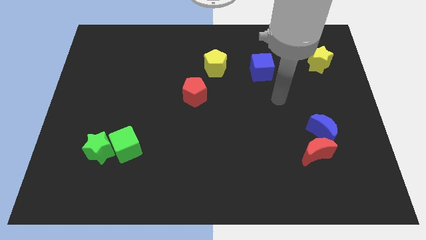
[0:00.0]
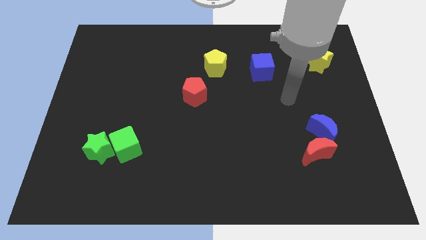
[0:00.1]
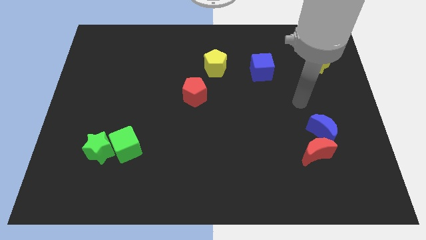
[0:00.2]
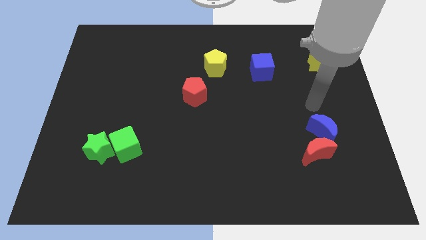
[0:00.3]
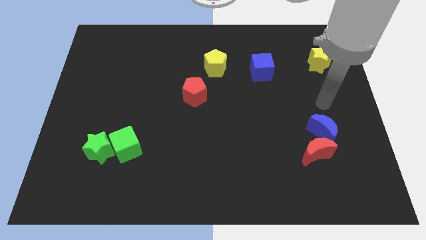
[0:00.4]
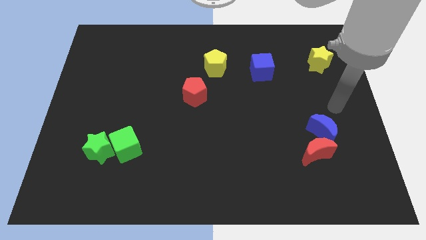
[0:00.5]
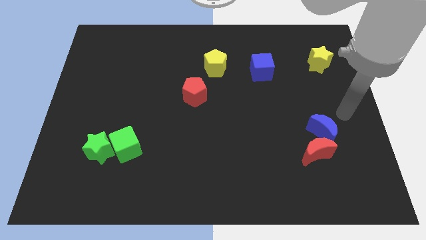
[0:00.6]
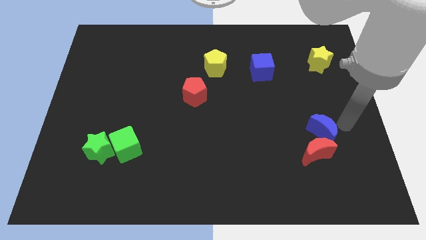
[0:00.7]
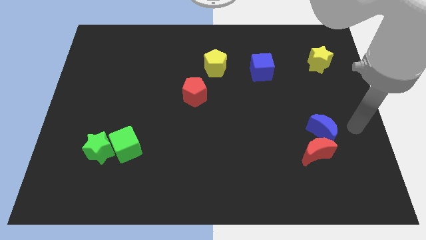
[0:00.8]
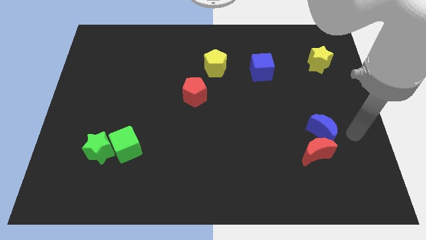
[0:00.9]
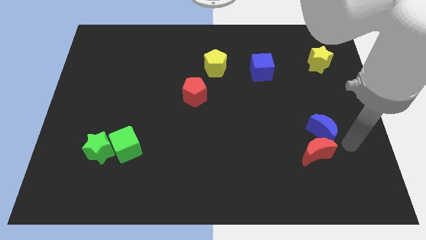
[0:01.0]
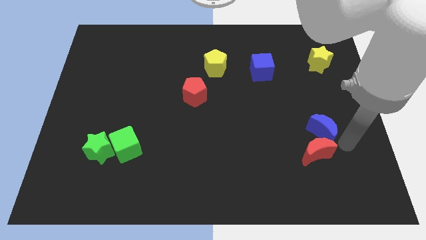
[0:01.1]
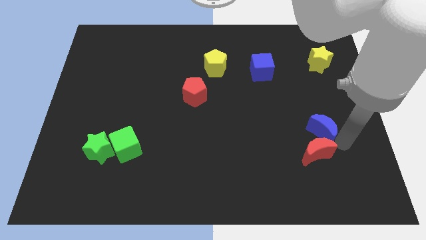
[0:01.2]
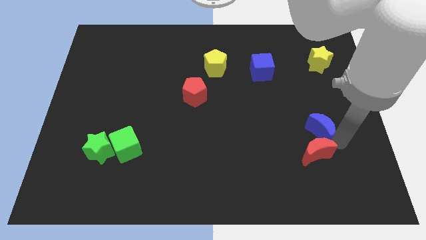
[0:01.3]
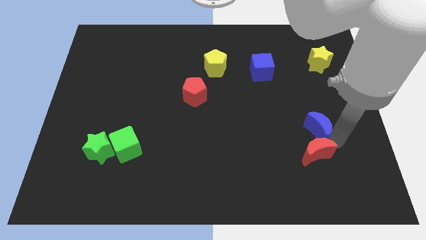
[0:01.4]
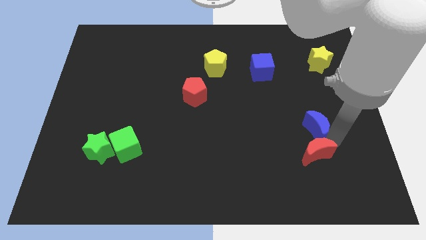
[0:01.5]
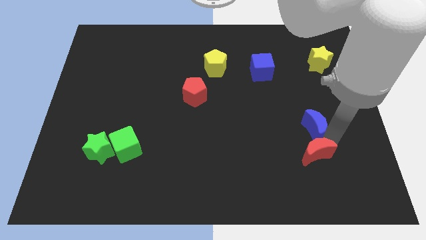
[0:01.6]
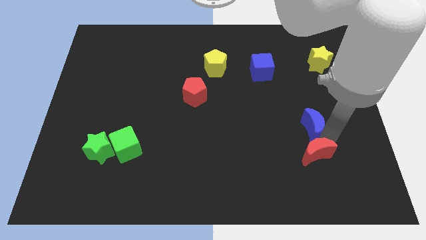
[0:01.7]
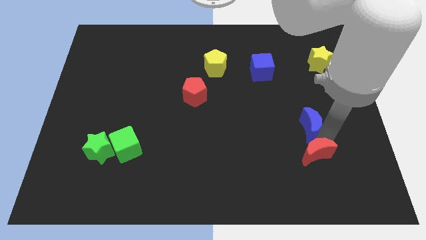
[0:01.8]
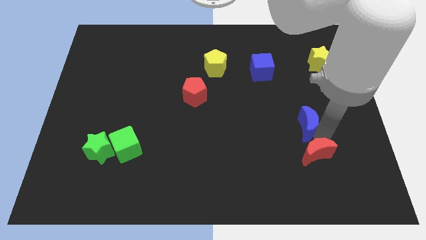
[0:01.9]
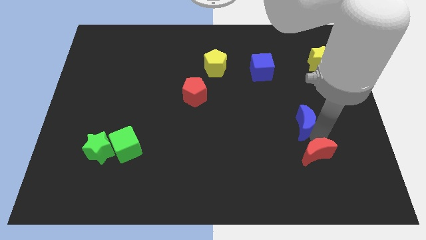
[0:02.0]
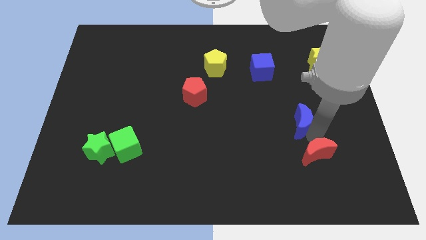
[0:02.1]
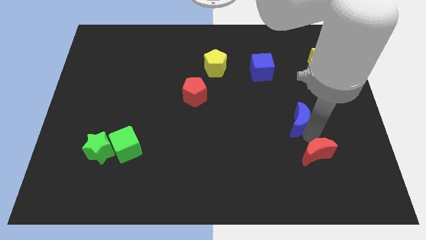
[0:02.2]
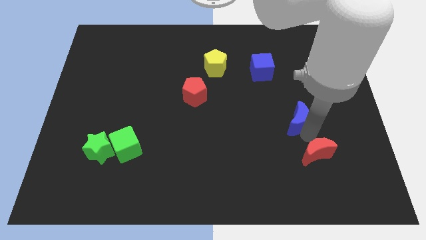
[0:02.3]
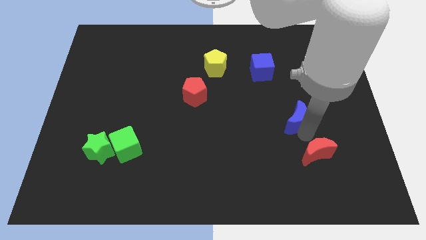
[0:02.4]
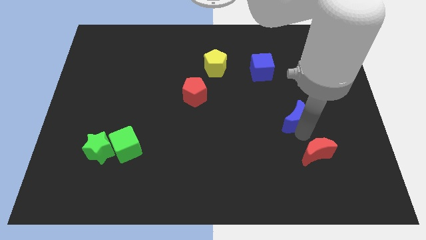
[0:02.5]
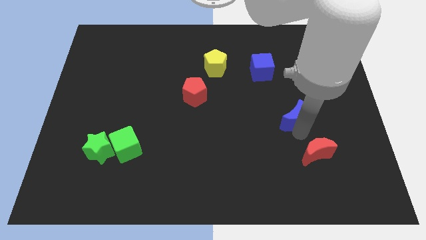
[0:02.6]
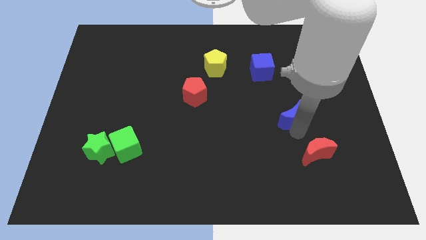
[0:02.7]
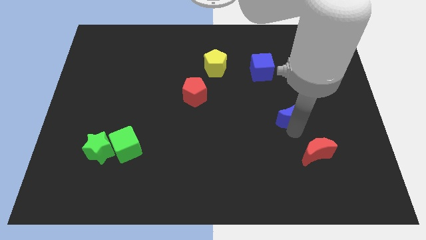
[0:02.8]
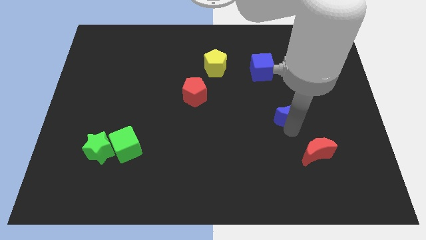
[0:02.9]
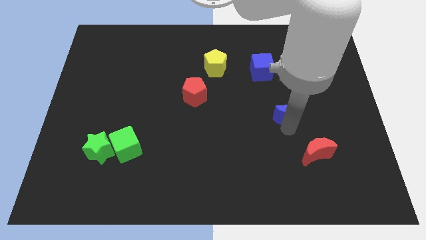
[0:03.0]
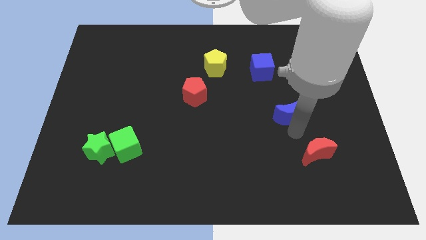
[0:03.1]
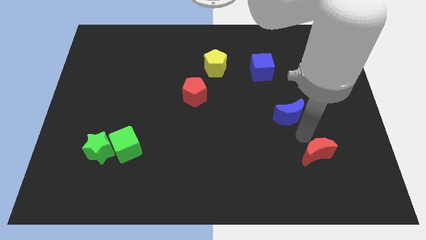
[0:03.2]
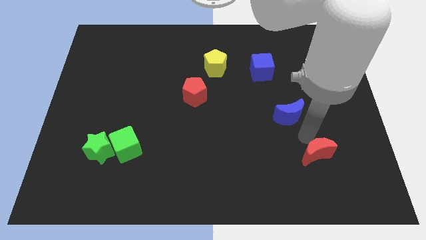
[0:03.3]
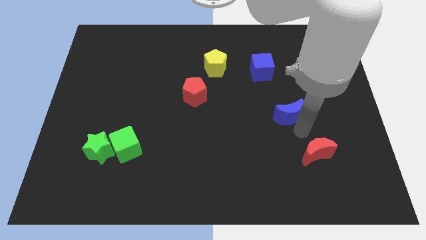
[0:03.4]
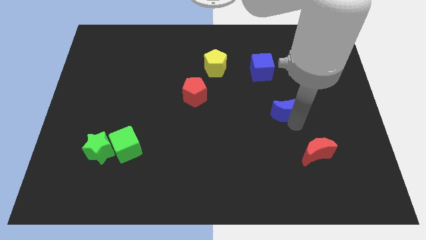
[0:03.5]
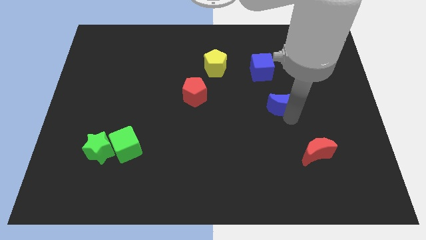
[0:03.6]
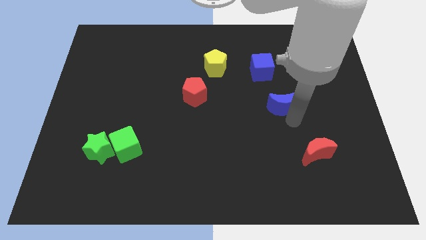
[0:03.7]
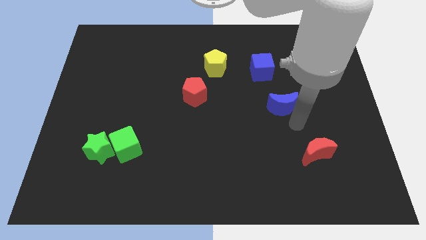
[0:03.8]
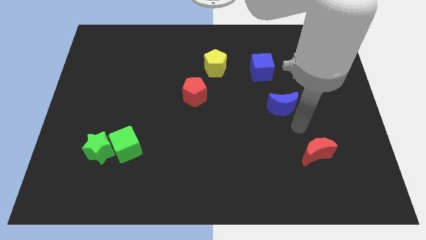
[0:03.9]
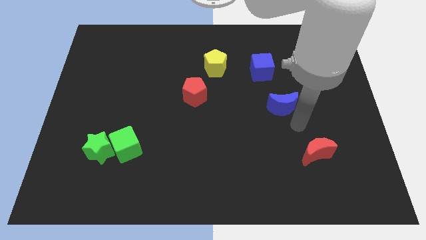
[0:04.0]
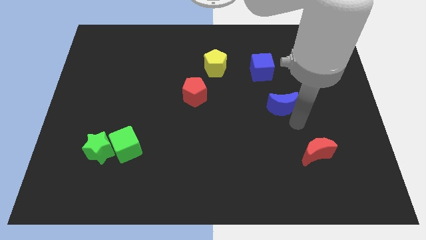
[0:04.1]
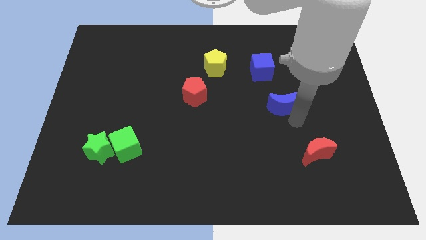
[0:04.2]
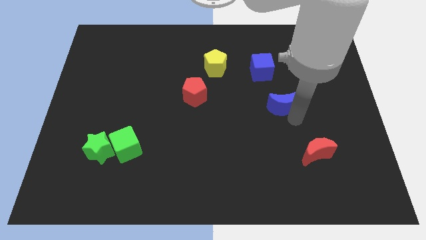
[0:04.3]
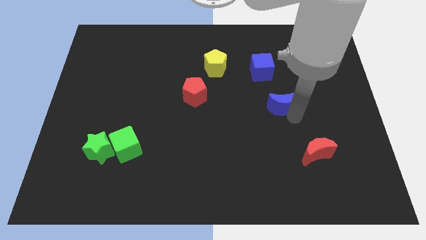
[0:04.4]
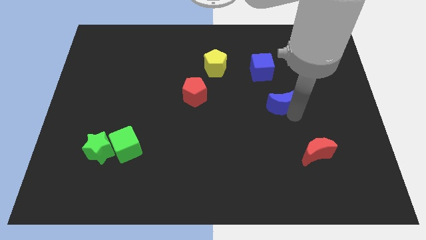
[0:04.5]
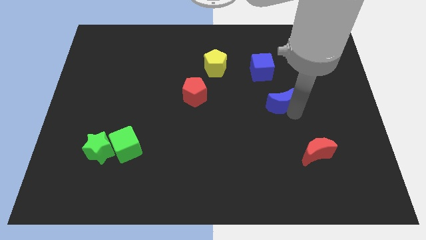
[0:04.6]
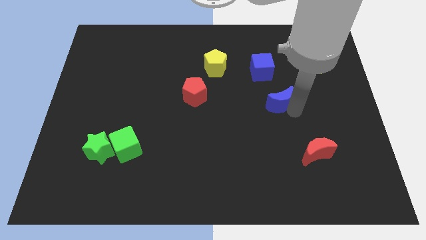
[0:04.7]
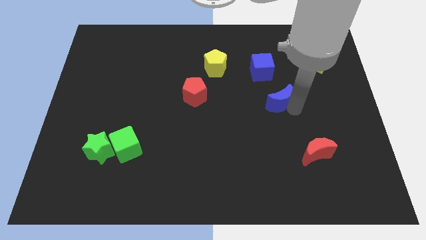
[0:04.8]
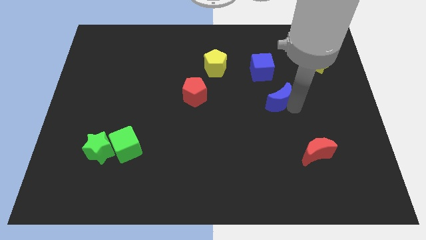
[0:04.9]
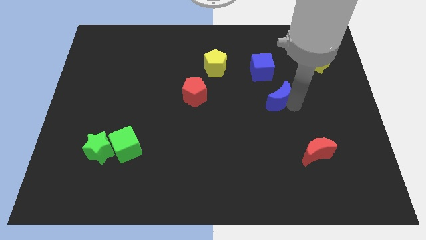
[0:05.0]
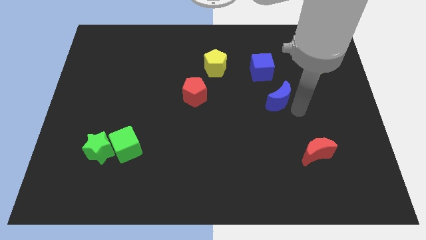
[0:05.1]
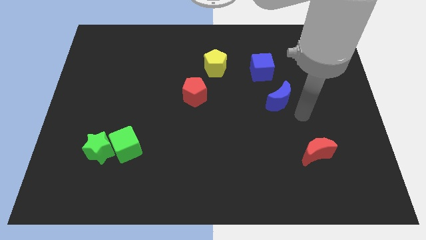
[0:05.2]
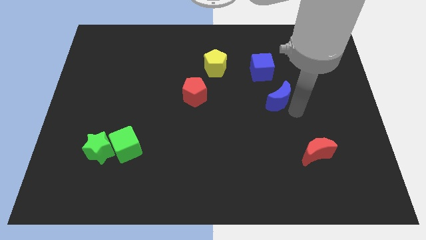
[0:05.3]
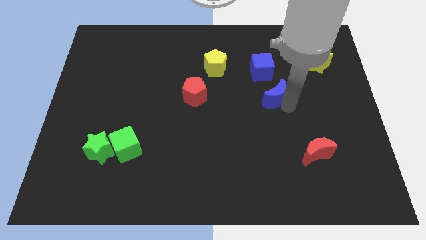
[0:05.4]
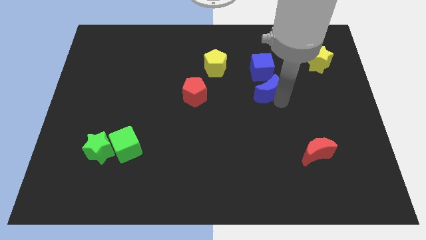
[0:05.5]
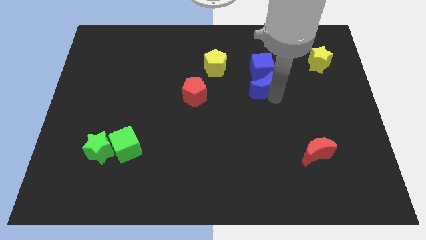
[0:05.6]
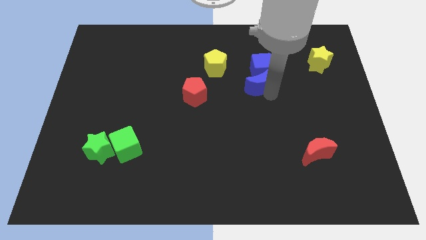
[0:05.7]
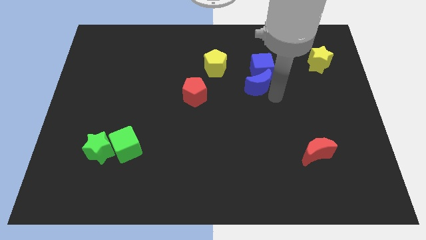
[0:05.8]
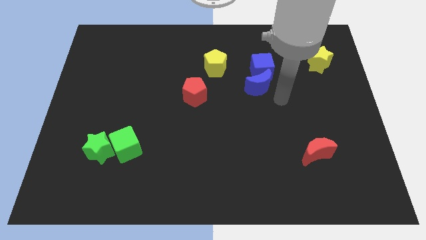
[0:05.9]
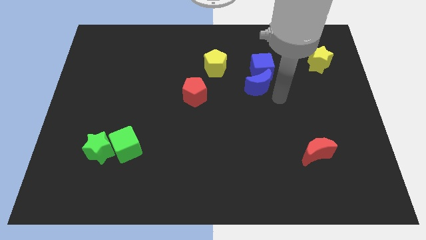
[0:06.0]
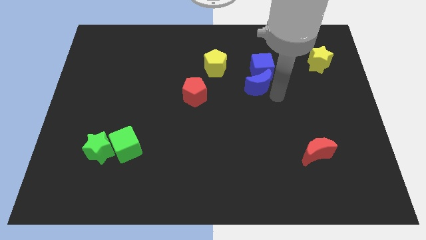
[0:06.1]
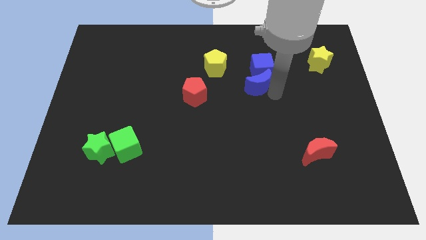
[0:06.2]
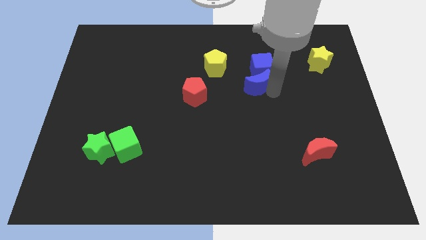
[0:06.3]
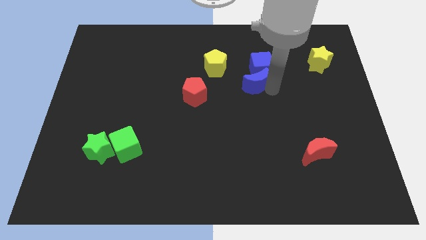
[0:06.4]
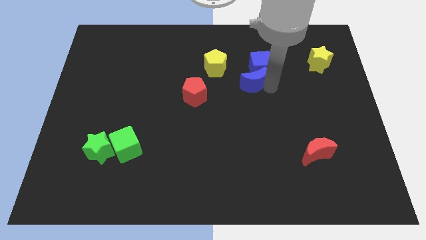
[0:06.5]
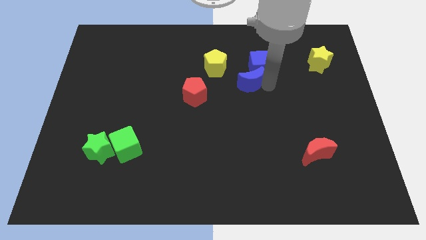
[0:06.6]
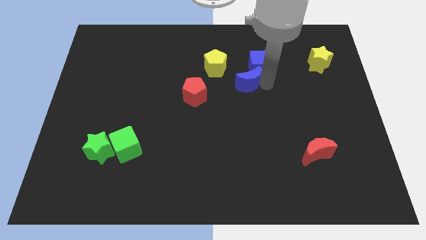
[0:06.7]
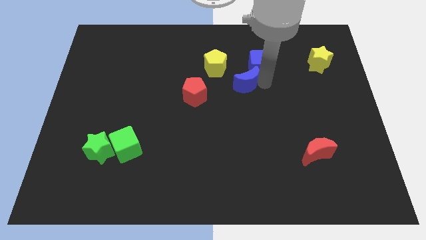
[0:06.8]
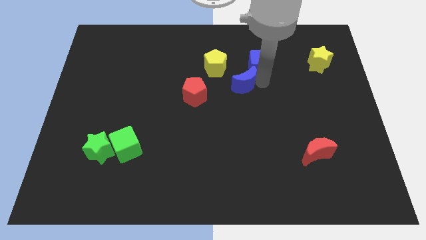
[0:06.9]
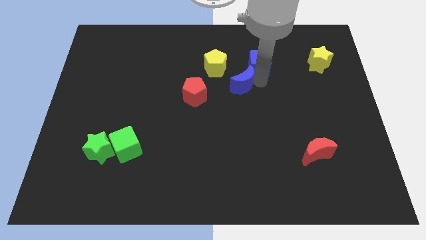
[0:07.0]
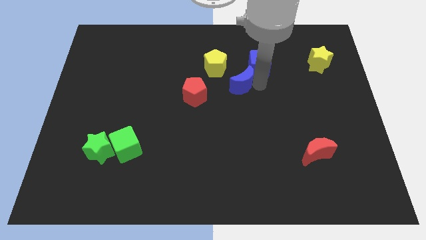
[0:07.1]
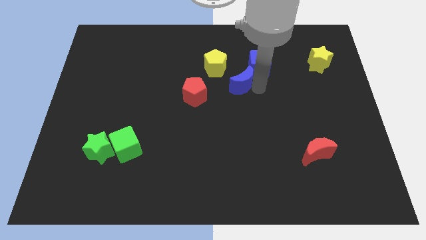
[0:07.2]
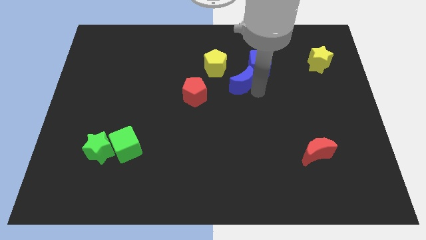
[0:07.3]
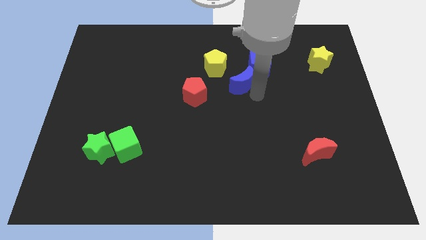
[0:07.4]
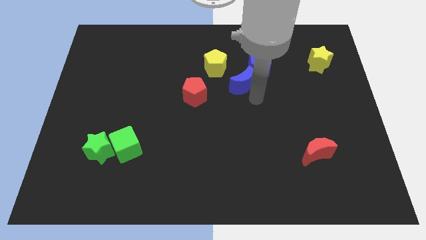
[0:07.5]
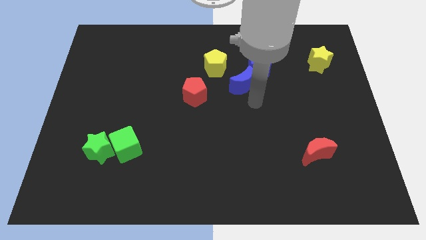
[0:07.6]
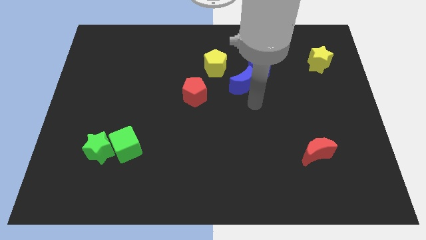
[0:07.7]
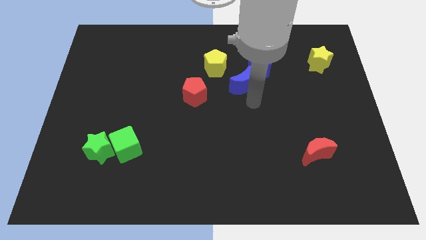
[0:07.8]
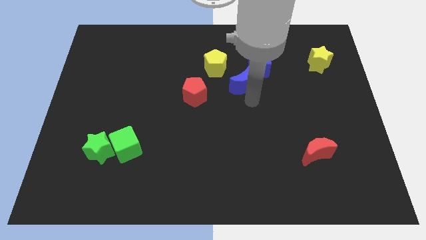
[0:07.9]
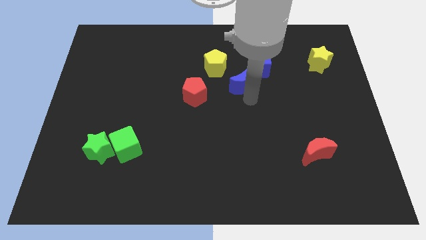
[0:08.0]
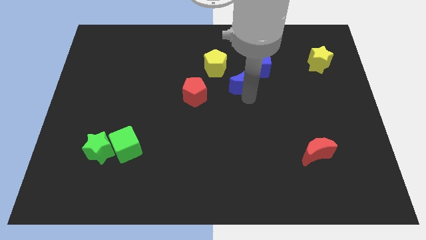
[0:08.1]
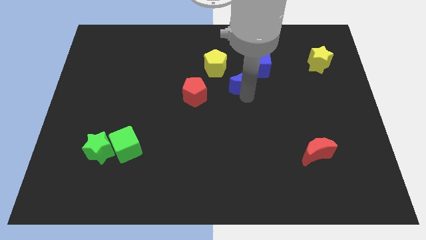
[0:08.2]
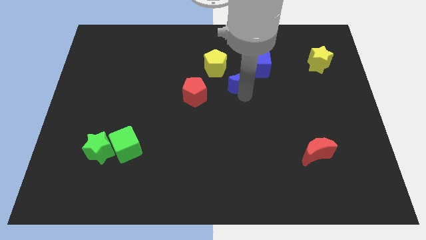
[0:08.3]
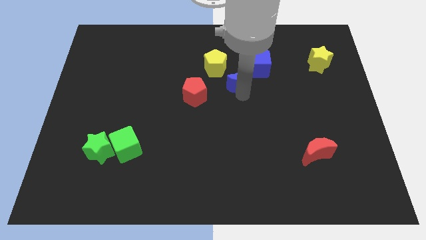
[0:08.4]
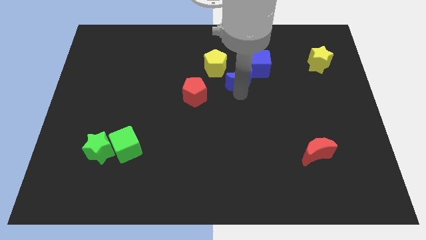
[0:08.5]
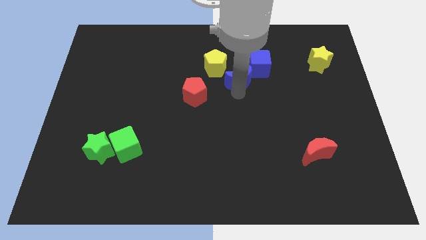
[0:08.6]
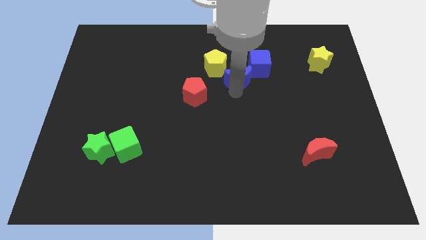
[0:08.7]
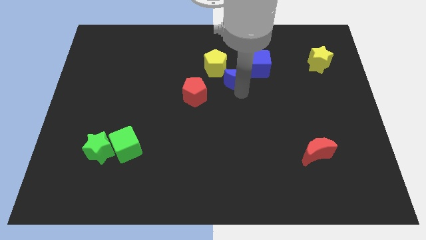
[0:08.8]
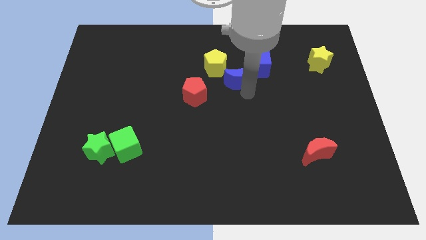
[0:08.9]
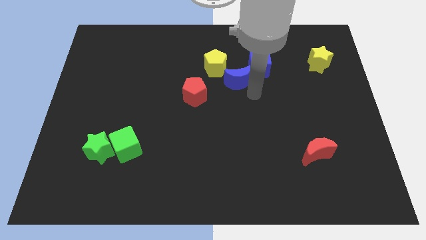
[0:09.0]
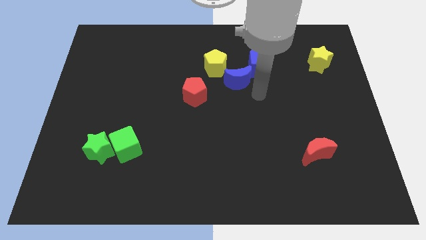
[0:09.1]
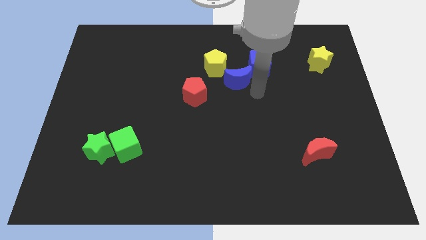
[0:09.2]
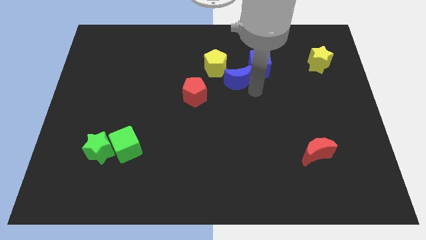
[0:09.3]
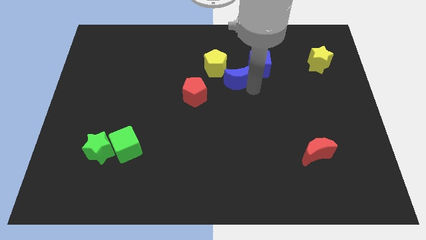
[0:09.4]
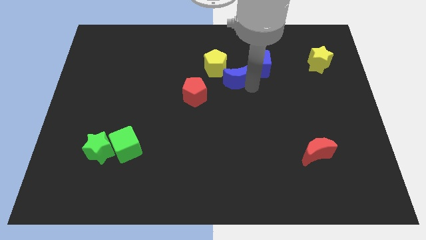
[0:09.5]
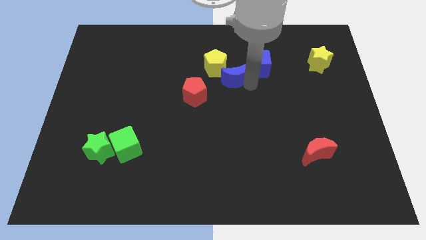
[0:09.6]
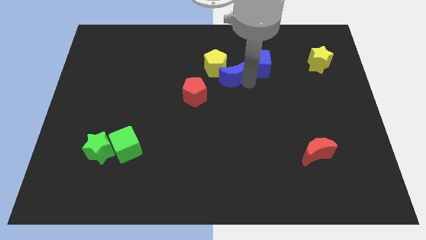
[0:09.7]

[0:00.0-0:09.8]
push the blue moon close to the yellow pentagon
